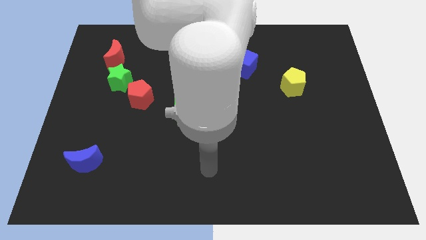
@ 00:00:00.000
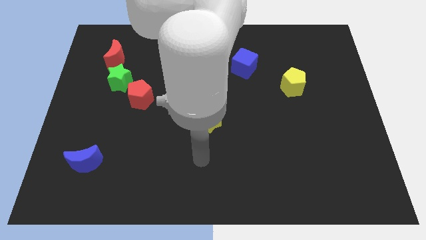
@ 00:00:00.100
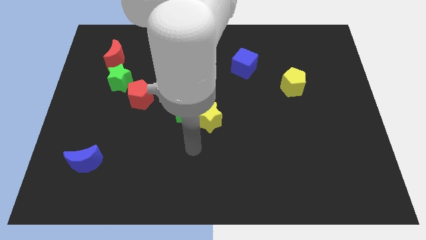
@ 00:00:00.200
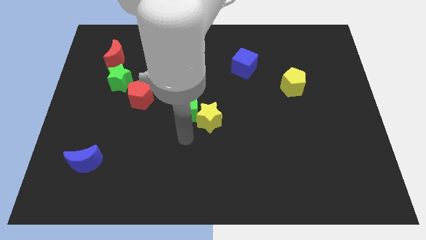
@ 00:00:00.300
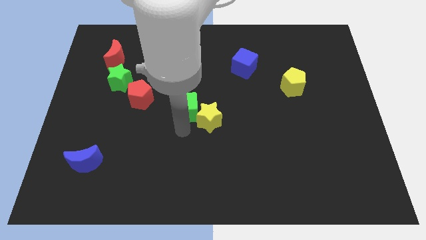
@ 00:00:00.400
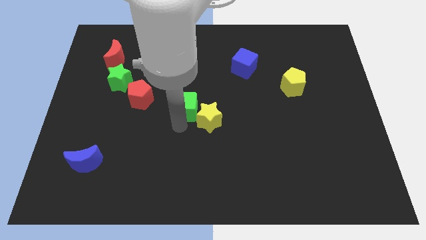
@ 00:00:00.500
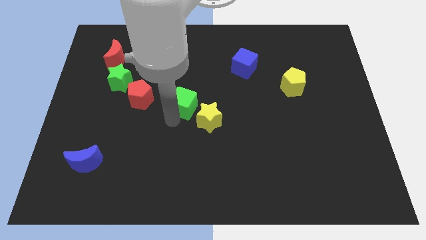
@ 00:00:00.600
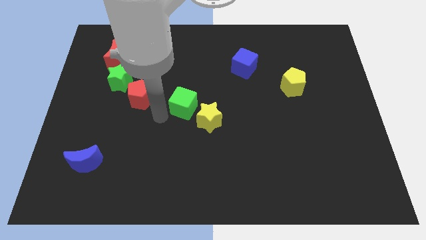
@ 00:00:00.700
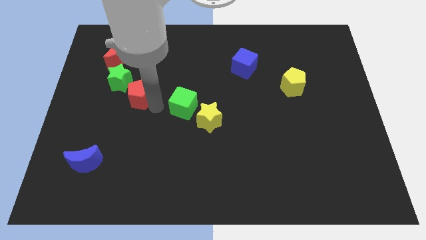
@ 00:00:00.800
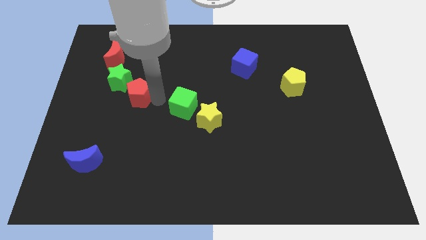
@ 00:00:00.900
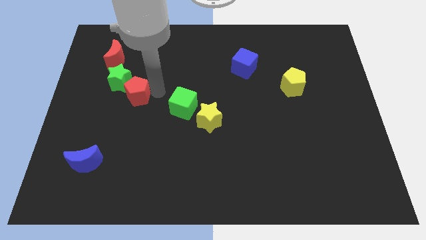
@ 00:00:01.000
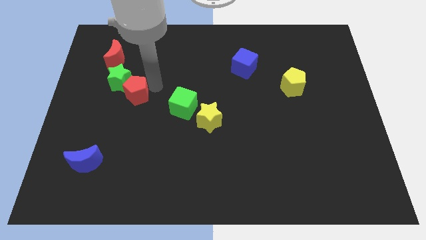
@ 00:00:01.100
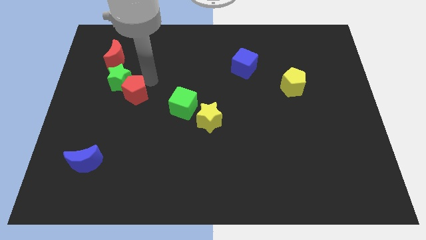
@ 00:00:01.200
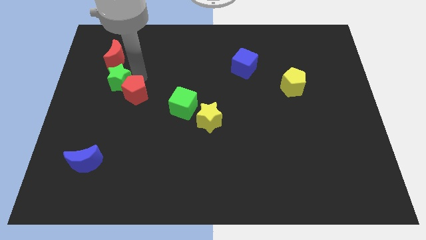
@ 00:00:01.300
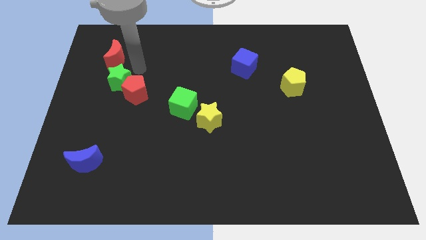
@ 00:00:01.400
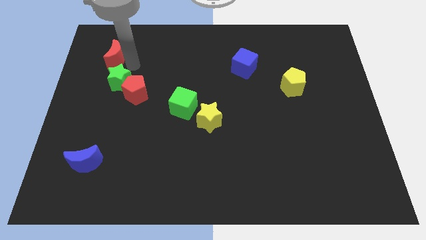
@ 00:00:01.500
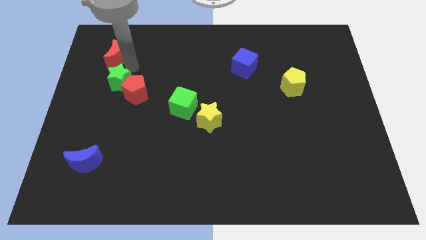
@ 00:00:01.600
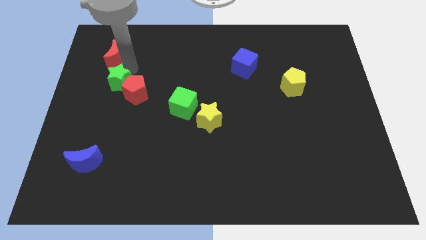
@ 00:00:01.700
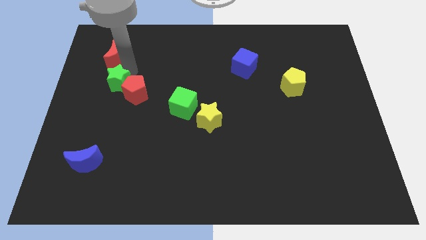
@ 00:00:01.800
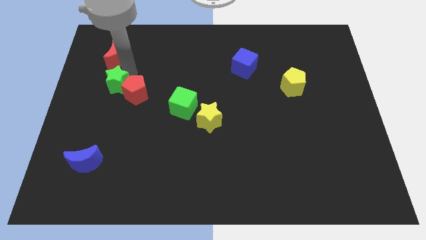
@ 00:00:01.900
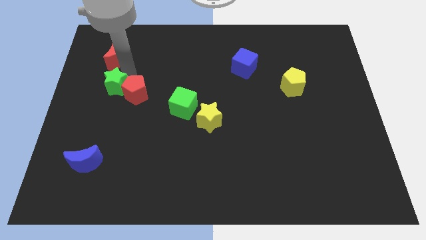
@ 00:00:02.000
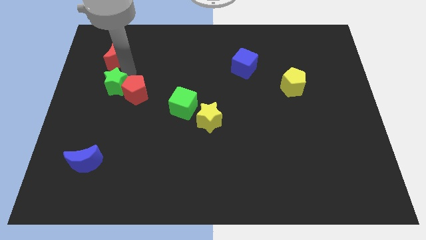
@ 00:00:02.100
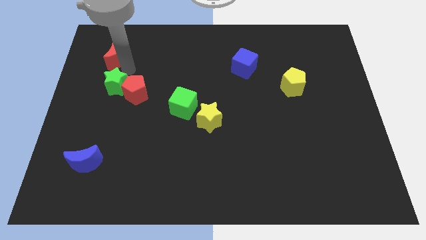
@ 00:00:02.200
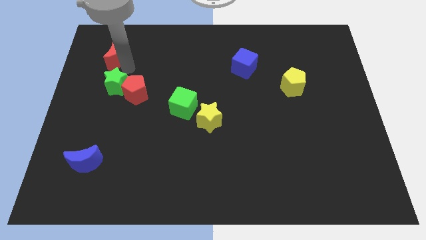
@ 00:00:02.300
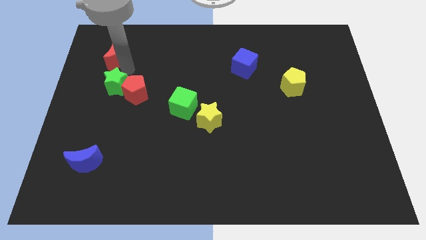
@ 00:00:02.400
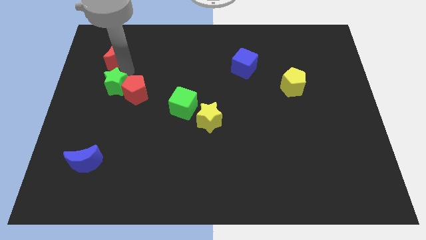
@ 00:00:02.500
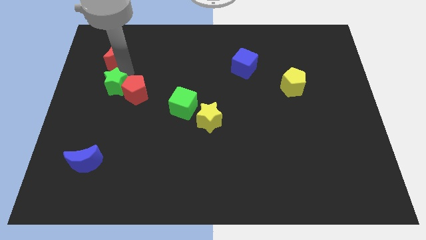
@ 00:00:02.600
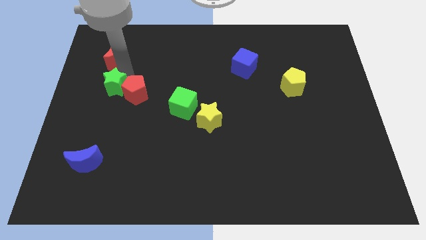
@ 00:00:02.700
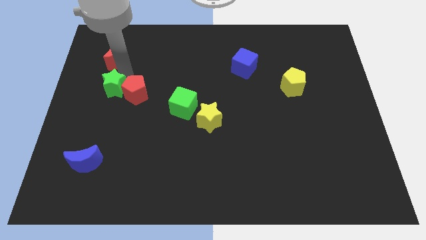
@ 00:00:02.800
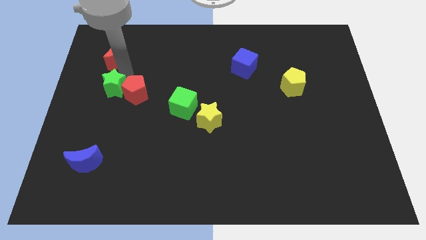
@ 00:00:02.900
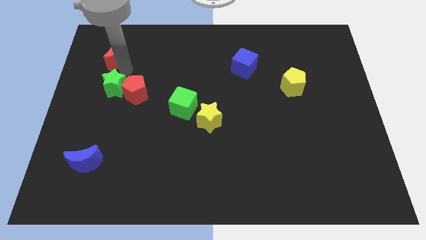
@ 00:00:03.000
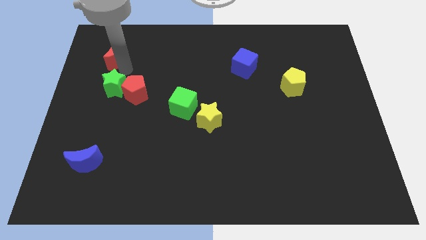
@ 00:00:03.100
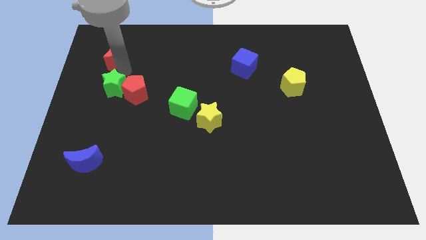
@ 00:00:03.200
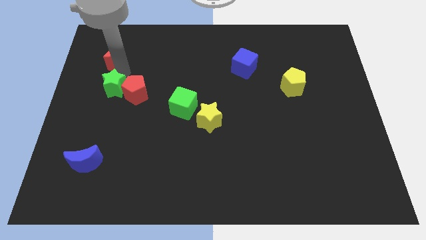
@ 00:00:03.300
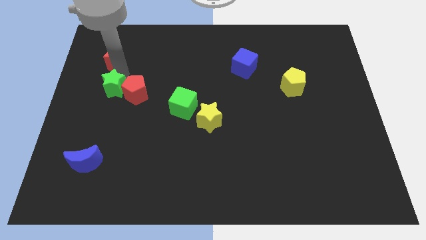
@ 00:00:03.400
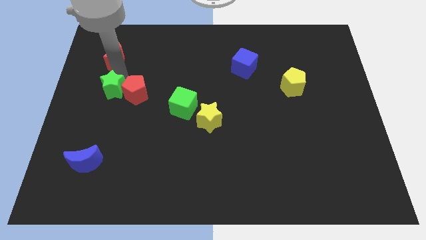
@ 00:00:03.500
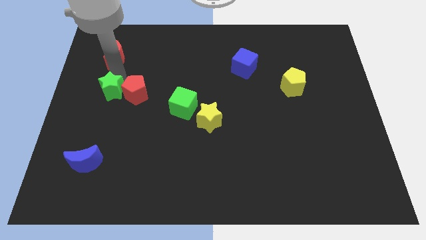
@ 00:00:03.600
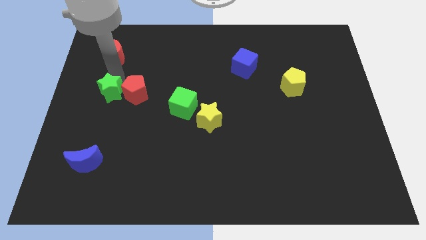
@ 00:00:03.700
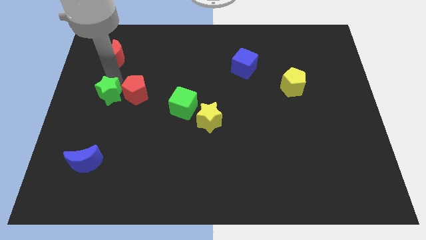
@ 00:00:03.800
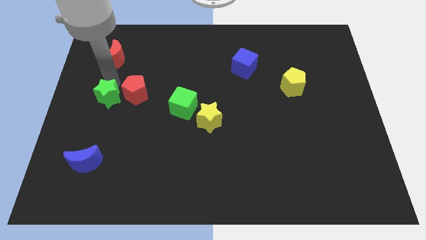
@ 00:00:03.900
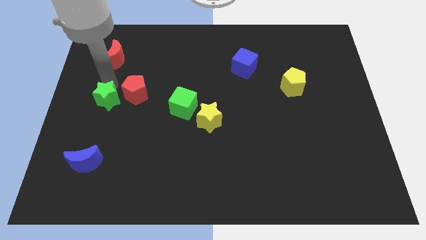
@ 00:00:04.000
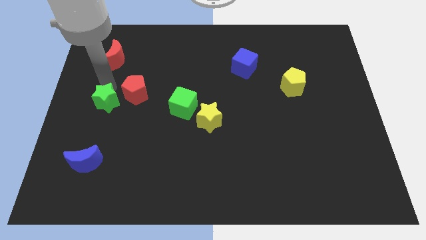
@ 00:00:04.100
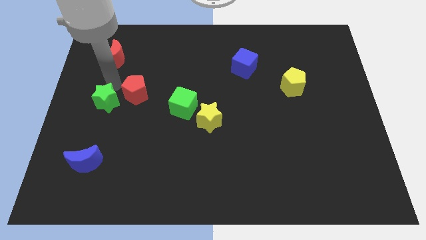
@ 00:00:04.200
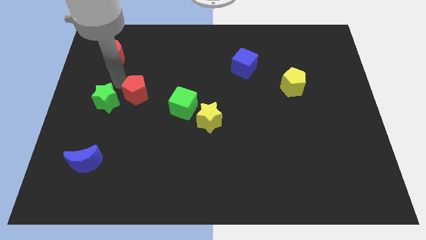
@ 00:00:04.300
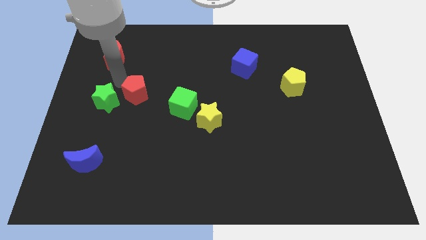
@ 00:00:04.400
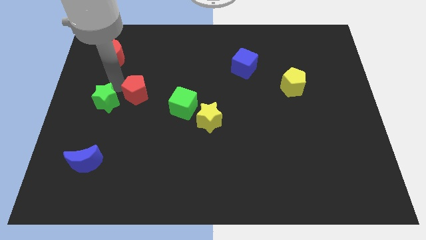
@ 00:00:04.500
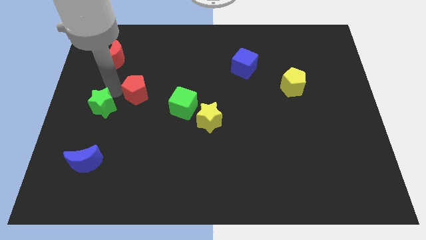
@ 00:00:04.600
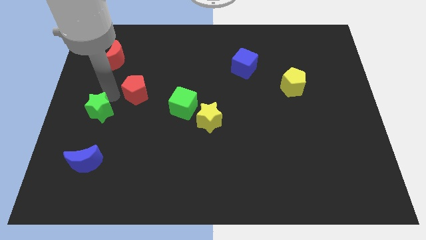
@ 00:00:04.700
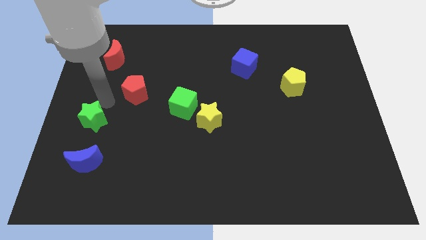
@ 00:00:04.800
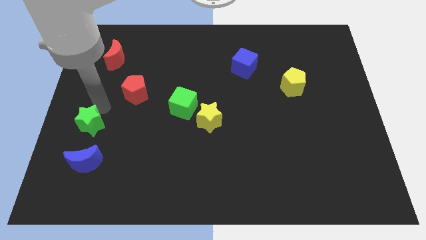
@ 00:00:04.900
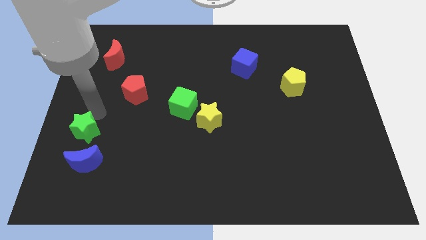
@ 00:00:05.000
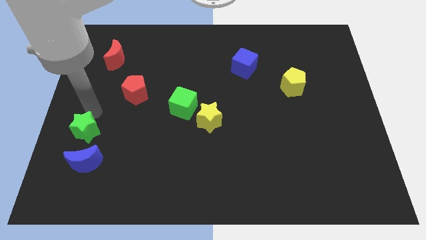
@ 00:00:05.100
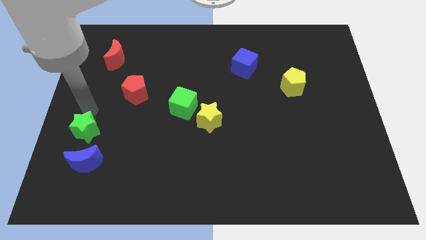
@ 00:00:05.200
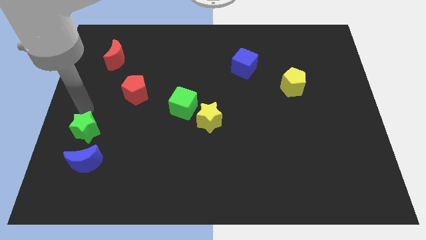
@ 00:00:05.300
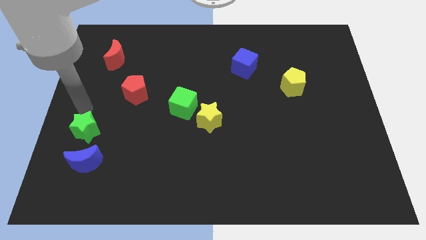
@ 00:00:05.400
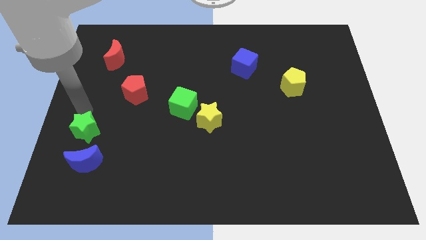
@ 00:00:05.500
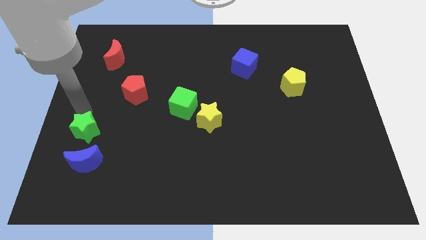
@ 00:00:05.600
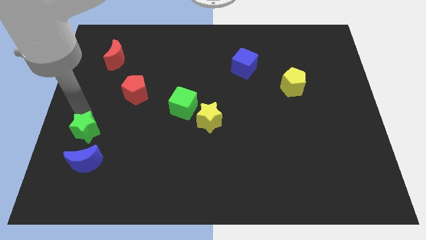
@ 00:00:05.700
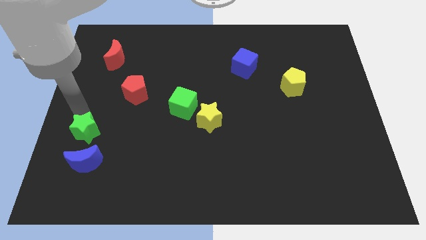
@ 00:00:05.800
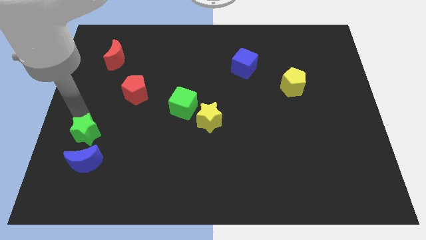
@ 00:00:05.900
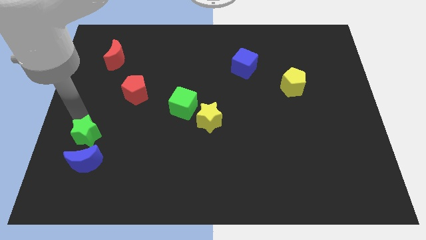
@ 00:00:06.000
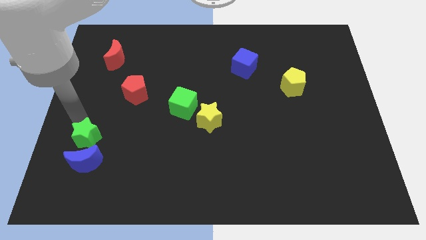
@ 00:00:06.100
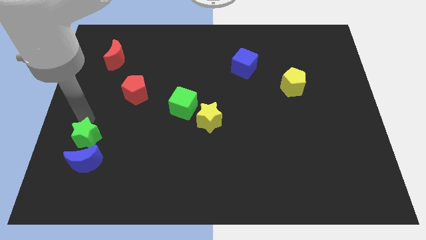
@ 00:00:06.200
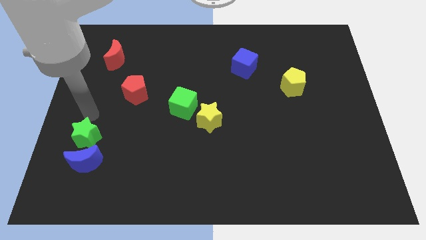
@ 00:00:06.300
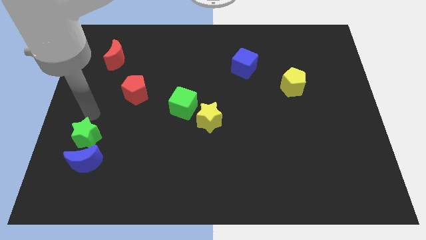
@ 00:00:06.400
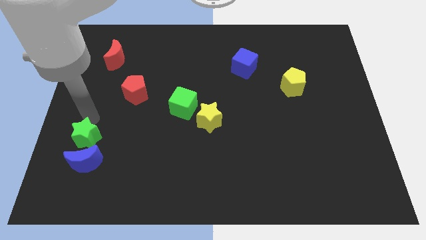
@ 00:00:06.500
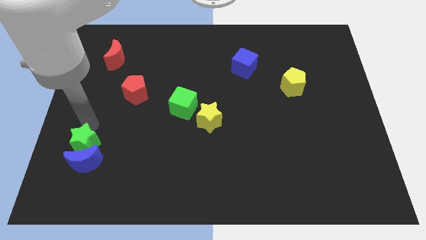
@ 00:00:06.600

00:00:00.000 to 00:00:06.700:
move the green star to the blue moon

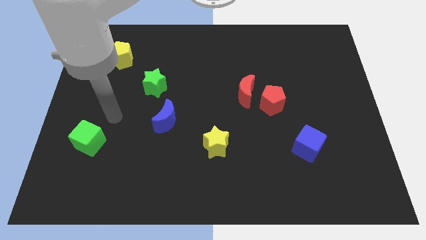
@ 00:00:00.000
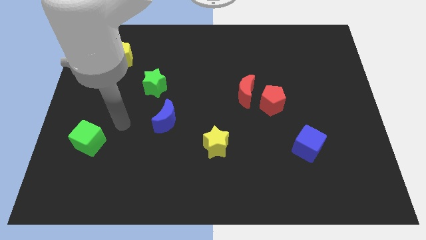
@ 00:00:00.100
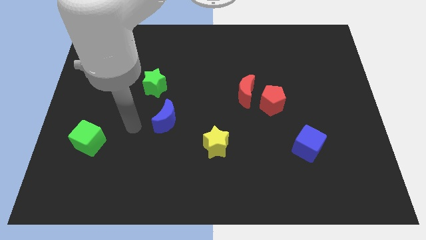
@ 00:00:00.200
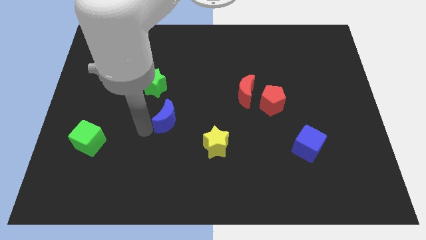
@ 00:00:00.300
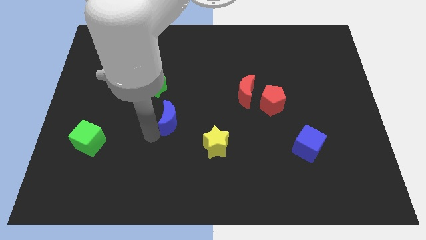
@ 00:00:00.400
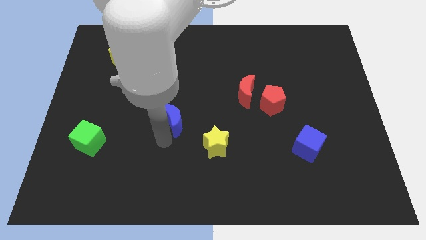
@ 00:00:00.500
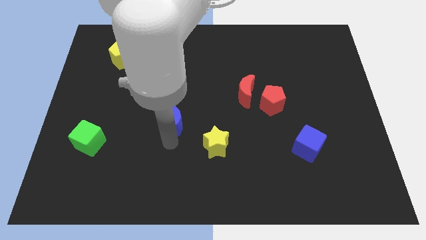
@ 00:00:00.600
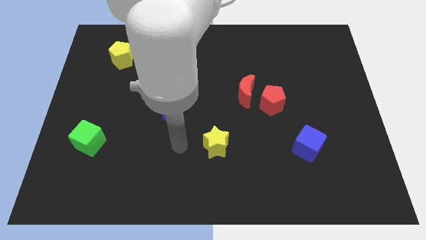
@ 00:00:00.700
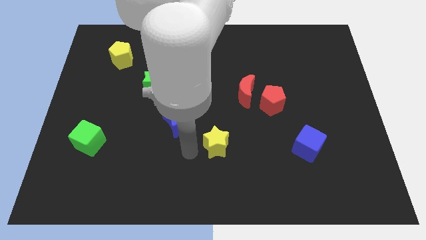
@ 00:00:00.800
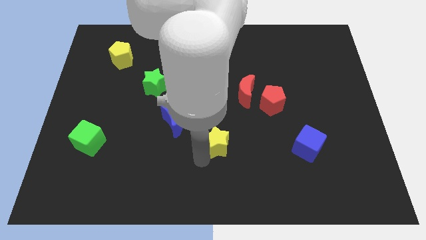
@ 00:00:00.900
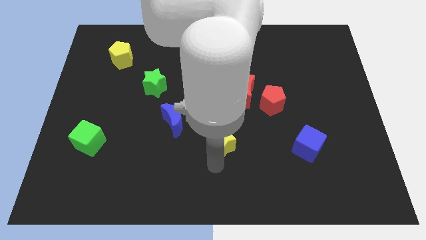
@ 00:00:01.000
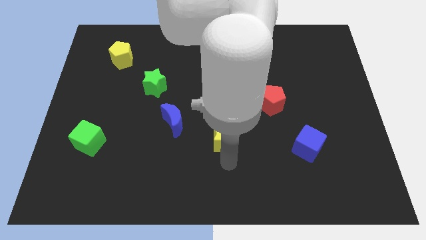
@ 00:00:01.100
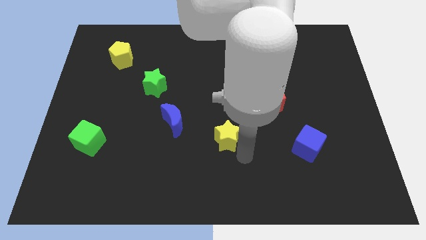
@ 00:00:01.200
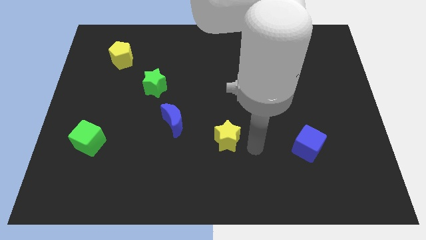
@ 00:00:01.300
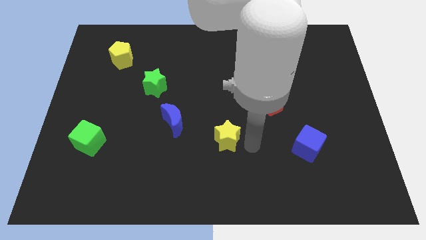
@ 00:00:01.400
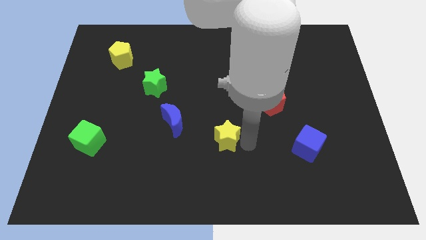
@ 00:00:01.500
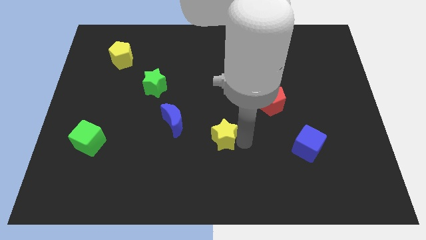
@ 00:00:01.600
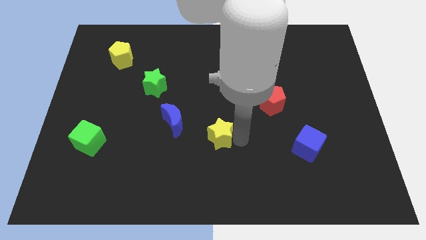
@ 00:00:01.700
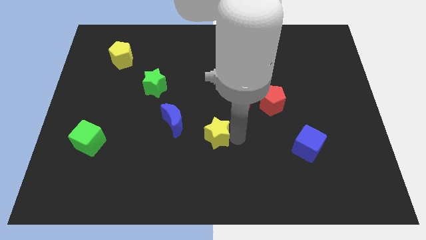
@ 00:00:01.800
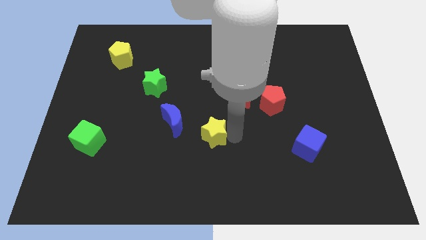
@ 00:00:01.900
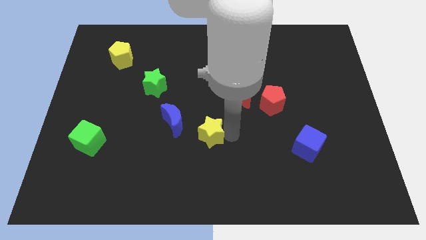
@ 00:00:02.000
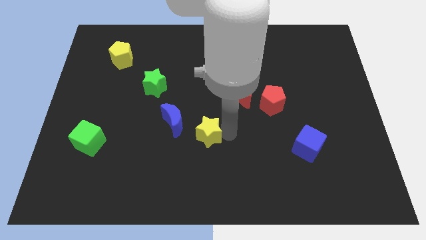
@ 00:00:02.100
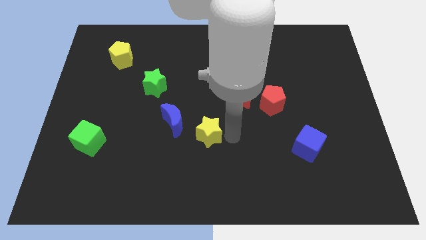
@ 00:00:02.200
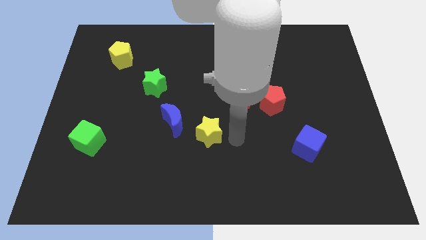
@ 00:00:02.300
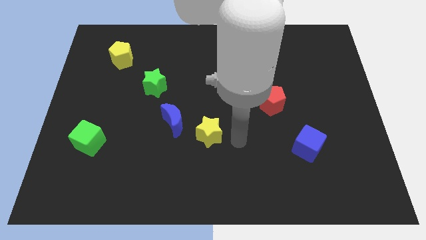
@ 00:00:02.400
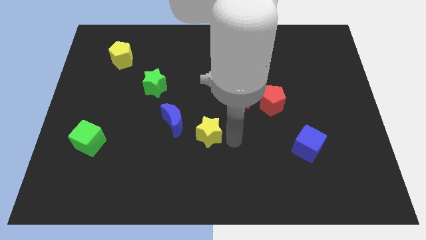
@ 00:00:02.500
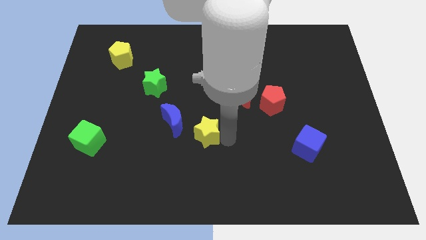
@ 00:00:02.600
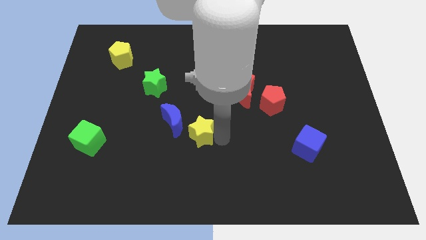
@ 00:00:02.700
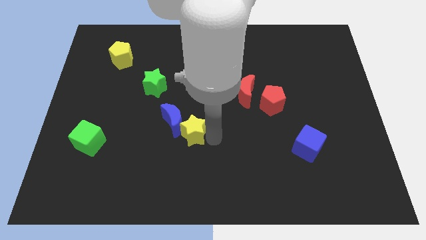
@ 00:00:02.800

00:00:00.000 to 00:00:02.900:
slide the yellow star towards the blue moon
